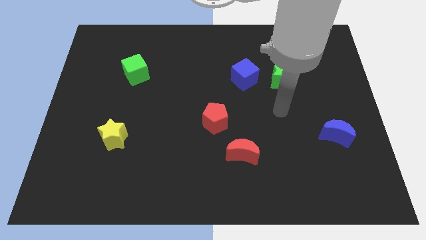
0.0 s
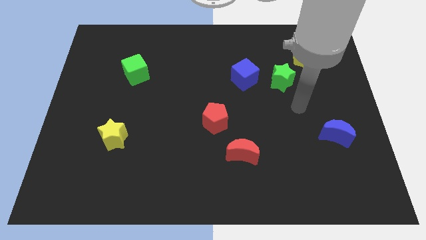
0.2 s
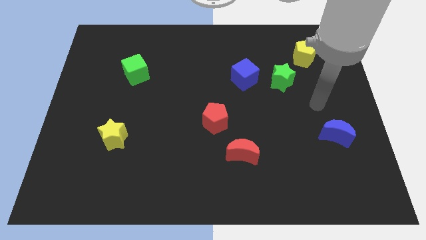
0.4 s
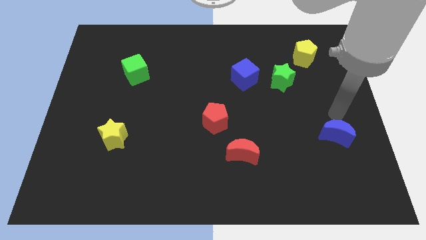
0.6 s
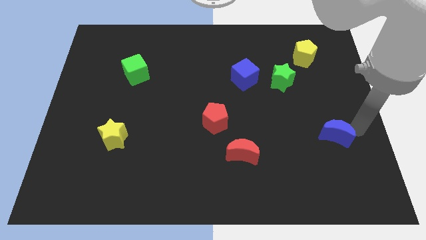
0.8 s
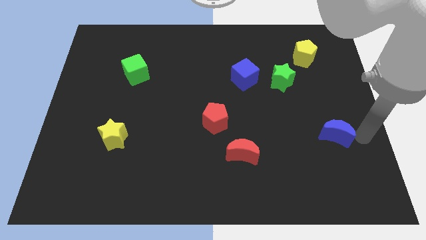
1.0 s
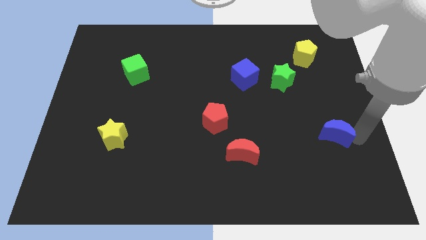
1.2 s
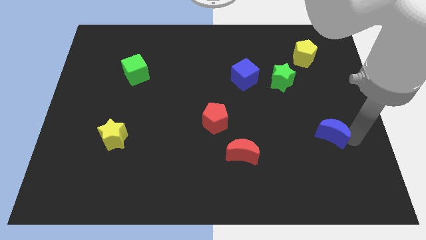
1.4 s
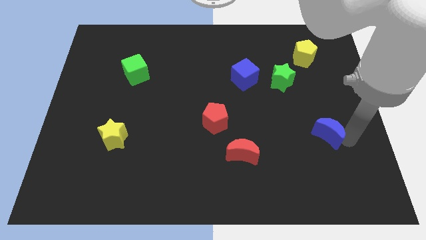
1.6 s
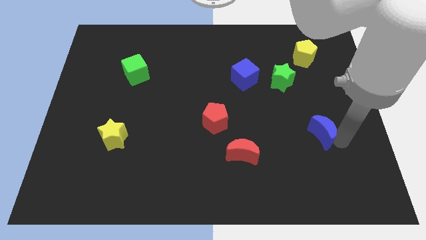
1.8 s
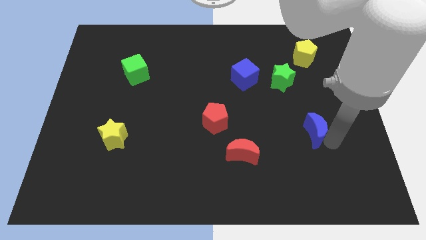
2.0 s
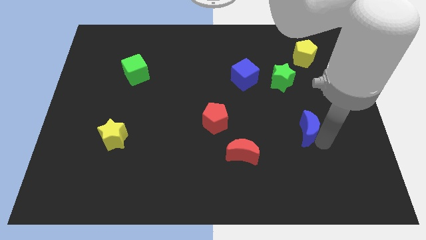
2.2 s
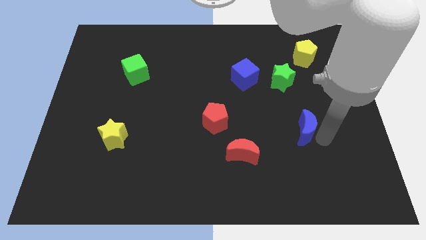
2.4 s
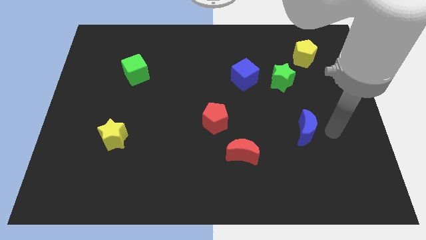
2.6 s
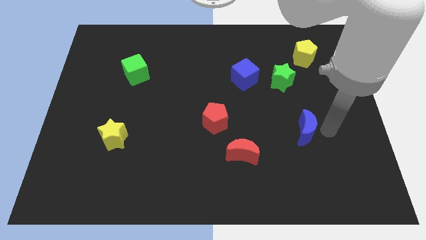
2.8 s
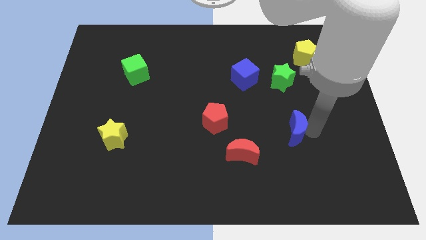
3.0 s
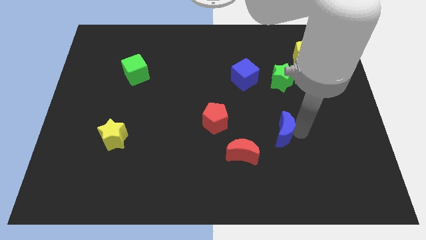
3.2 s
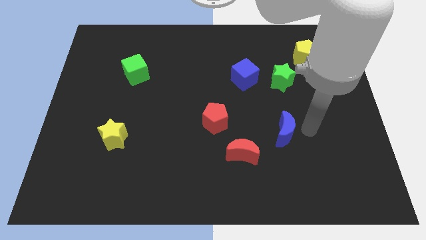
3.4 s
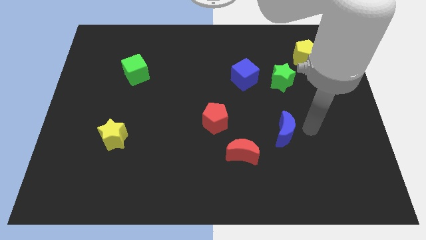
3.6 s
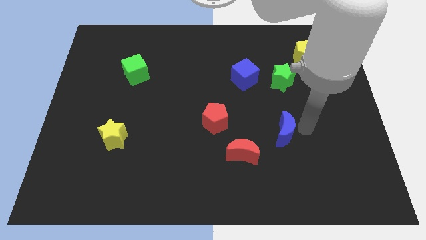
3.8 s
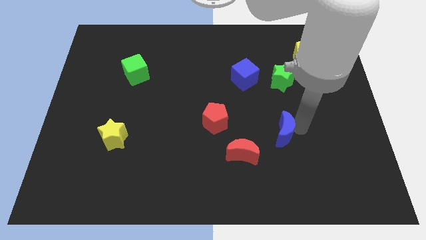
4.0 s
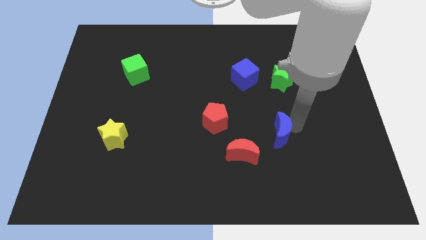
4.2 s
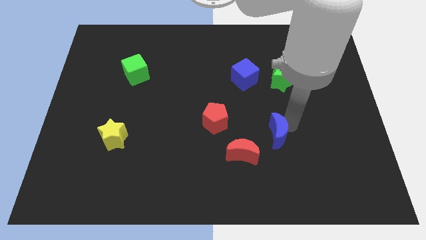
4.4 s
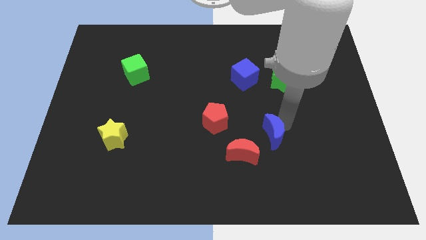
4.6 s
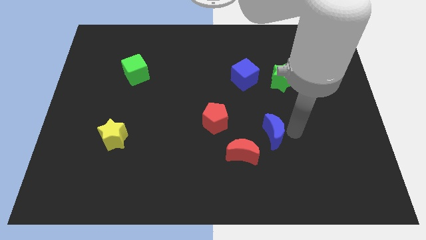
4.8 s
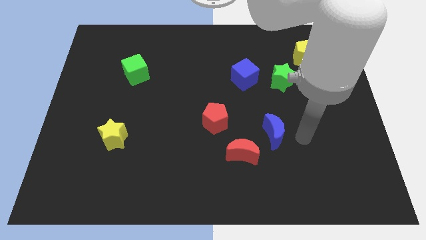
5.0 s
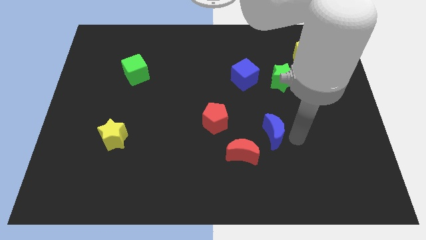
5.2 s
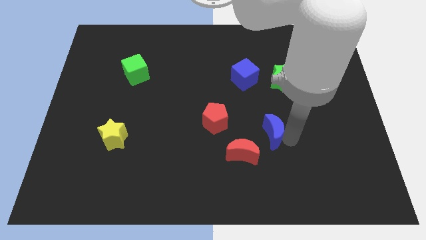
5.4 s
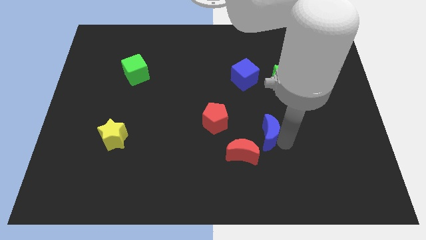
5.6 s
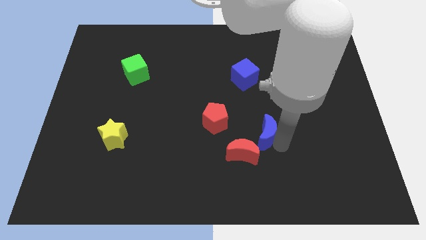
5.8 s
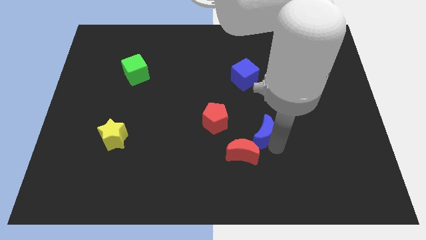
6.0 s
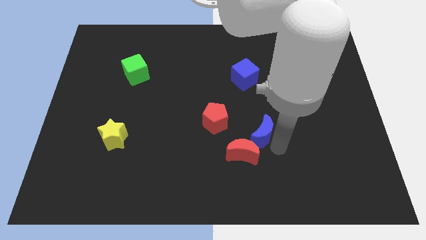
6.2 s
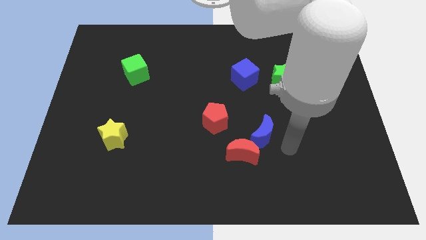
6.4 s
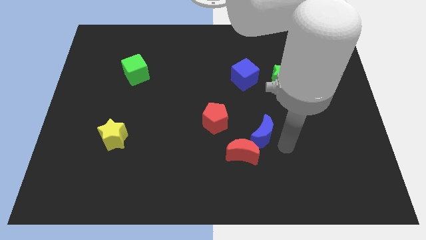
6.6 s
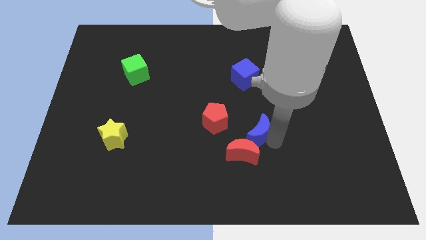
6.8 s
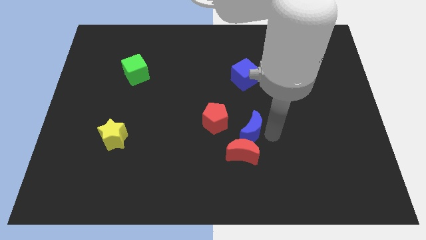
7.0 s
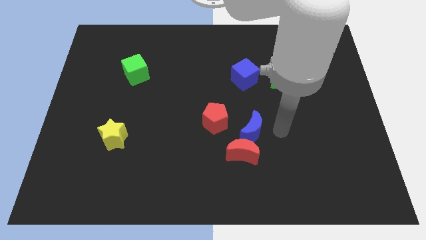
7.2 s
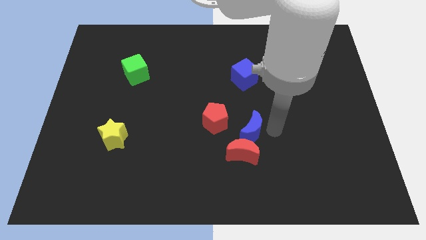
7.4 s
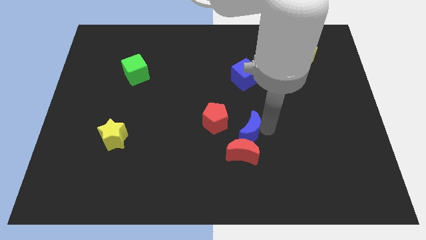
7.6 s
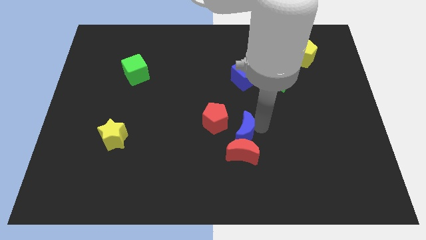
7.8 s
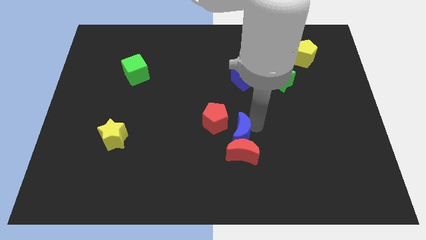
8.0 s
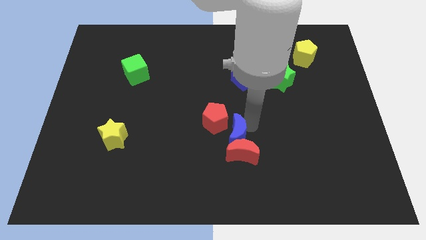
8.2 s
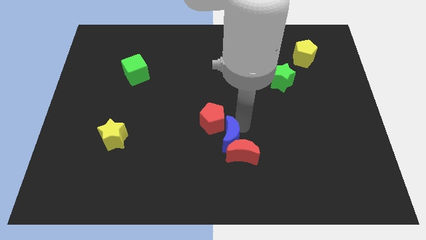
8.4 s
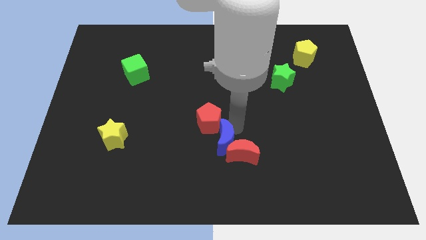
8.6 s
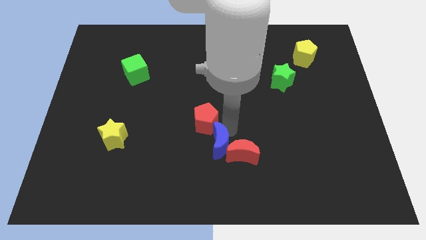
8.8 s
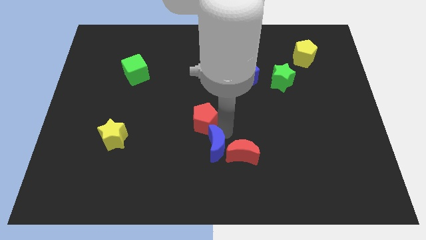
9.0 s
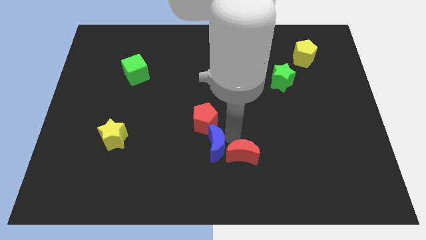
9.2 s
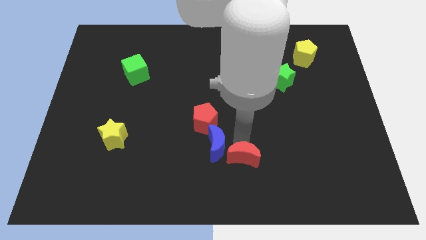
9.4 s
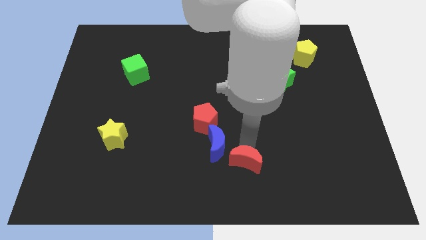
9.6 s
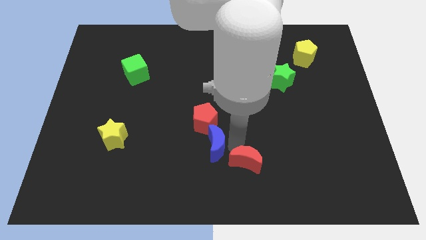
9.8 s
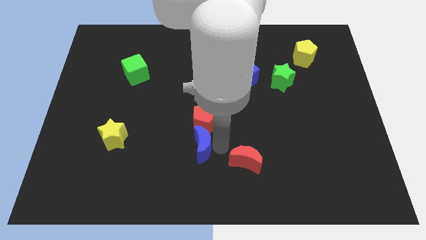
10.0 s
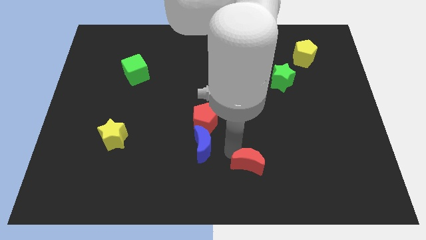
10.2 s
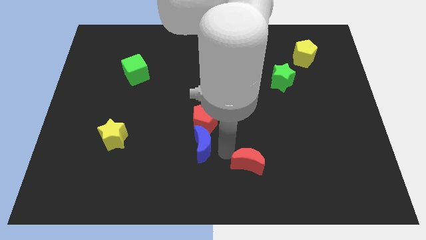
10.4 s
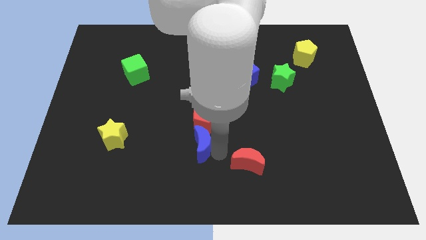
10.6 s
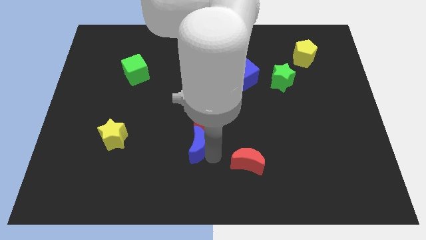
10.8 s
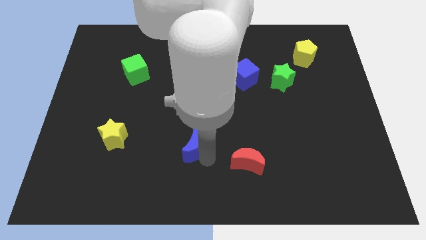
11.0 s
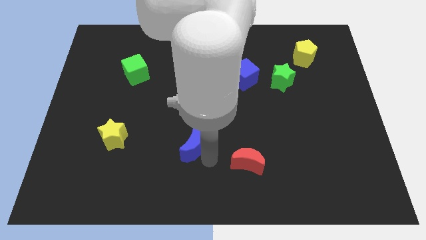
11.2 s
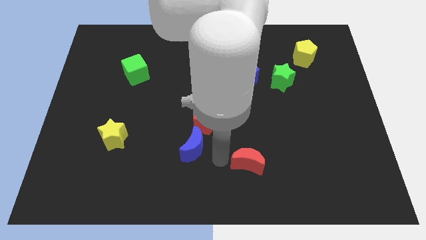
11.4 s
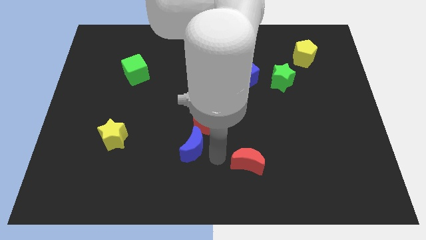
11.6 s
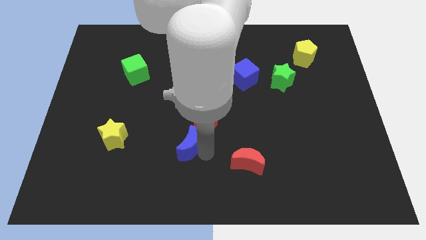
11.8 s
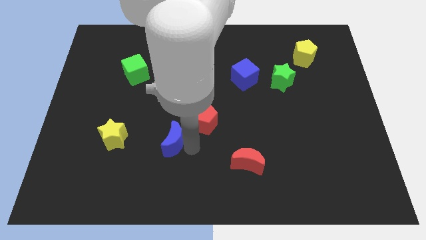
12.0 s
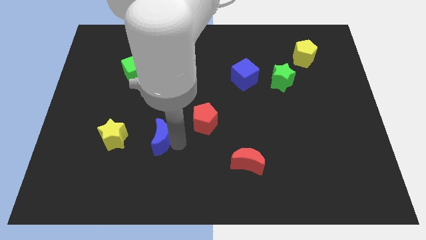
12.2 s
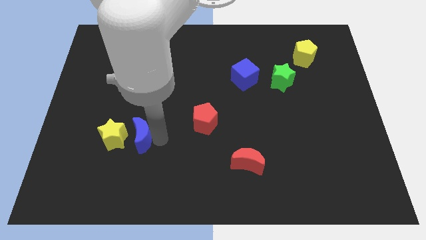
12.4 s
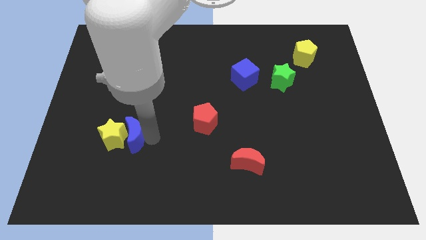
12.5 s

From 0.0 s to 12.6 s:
move the blue moon close to the yellow star
